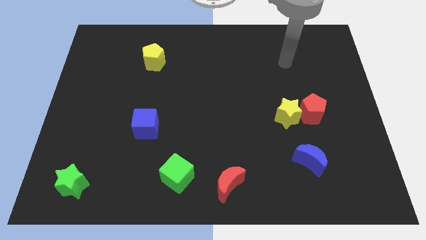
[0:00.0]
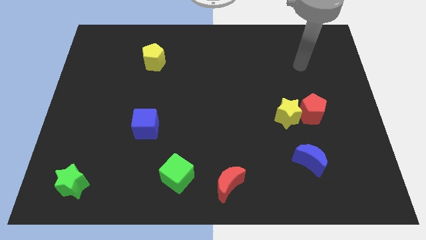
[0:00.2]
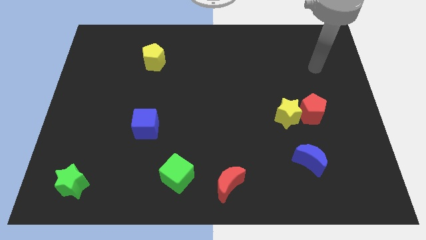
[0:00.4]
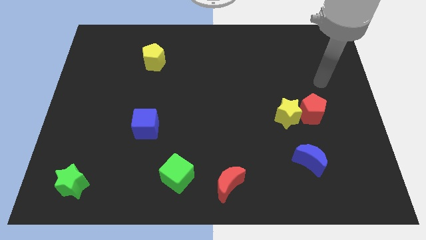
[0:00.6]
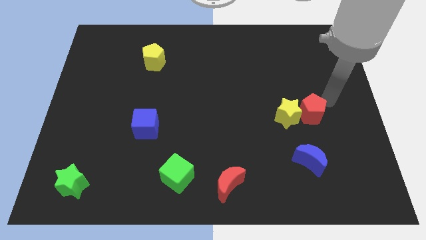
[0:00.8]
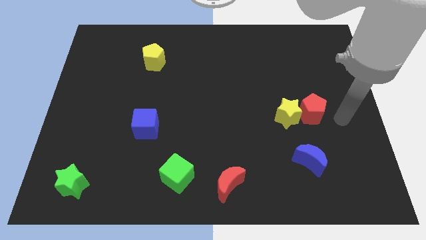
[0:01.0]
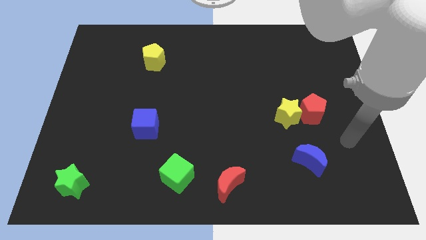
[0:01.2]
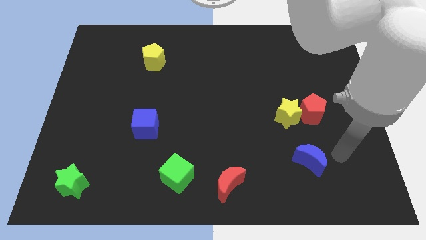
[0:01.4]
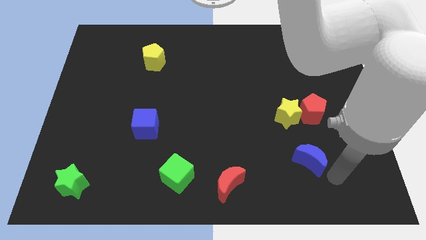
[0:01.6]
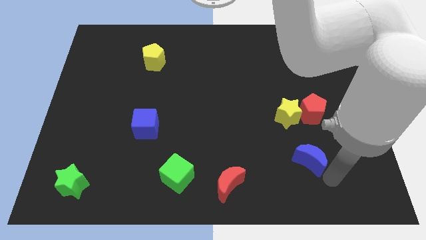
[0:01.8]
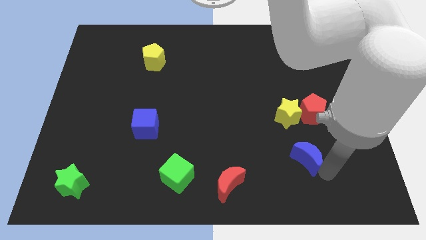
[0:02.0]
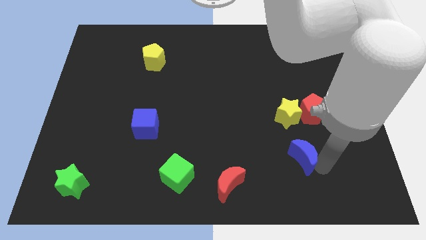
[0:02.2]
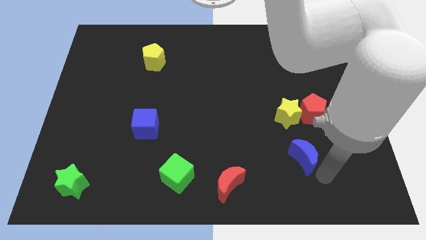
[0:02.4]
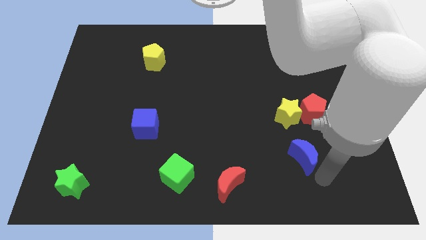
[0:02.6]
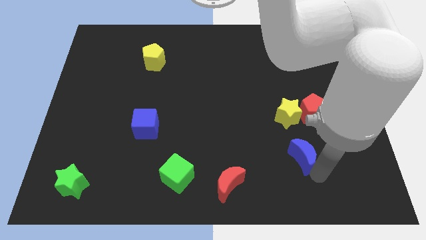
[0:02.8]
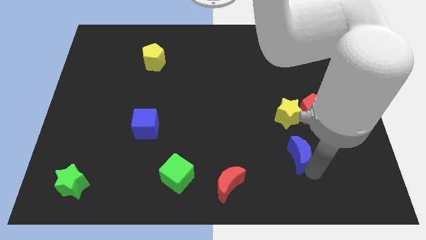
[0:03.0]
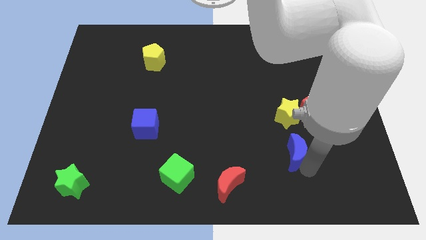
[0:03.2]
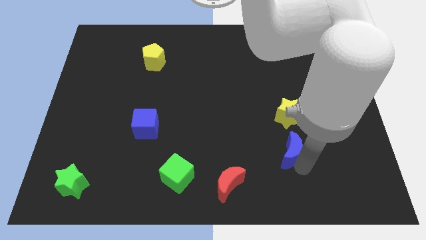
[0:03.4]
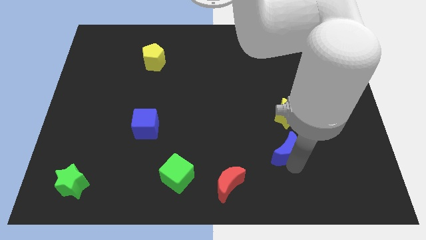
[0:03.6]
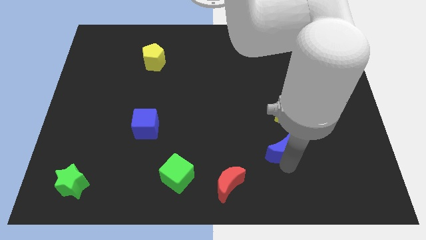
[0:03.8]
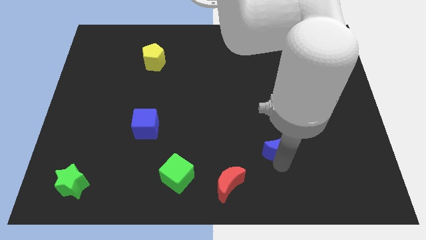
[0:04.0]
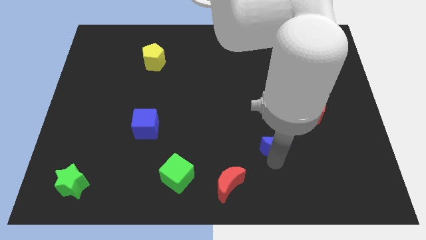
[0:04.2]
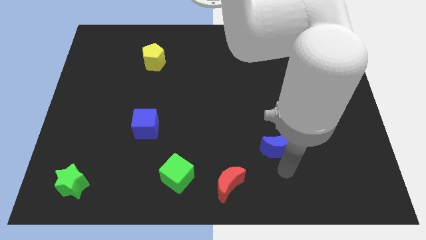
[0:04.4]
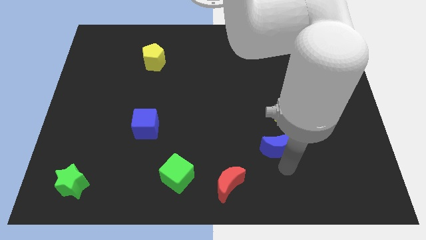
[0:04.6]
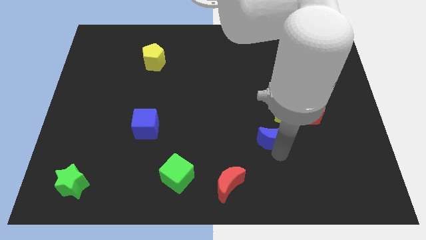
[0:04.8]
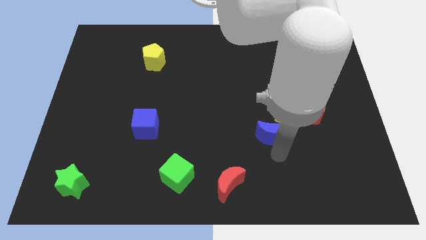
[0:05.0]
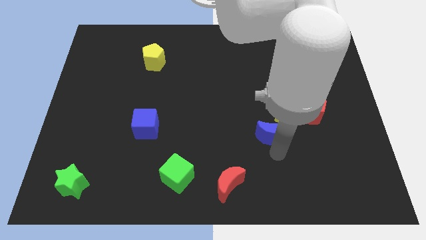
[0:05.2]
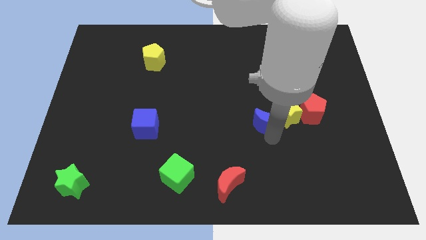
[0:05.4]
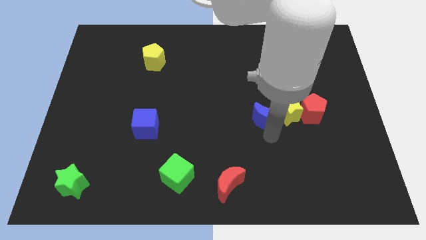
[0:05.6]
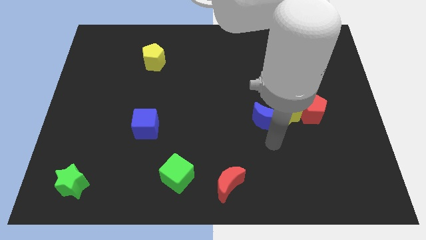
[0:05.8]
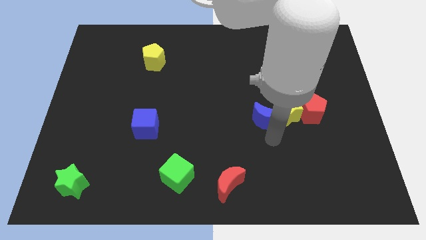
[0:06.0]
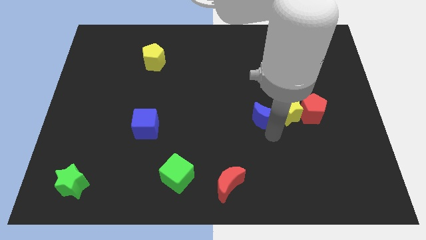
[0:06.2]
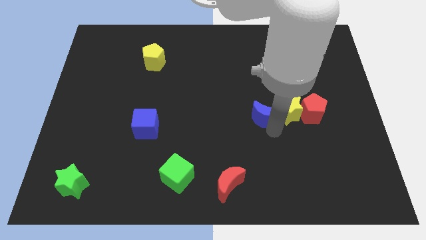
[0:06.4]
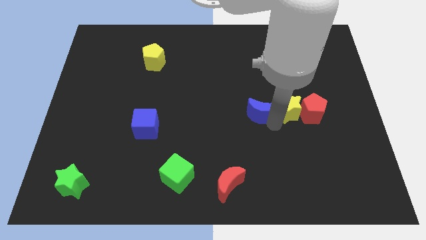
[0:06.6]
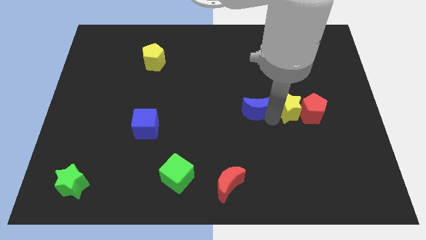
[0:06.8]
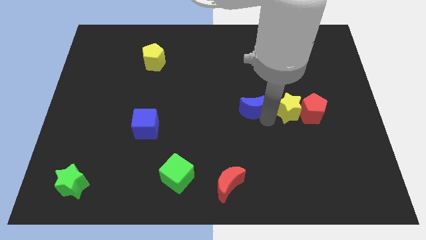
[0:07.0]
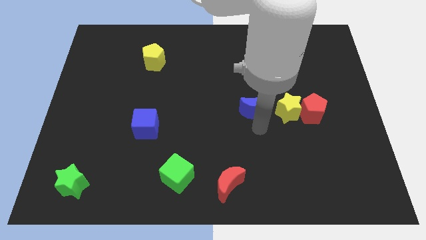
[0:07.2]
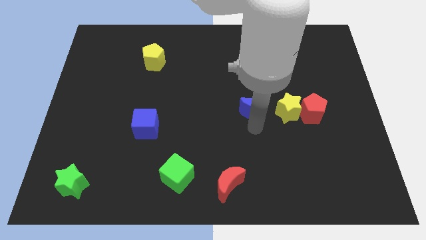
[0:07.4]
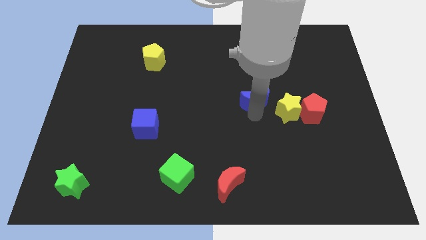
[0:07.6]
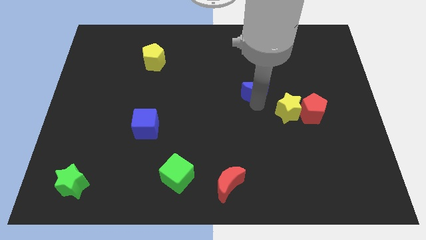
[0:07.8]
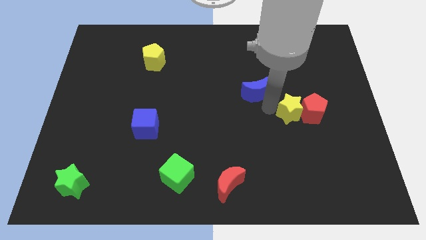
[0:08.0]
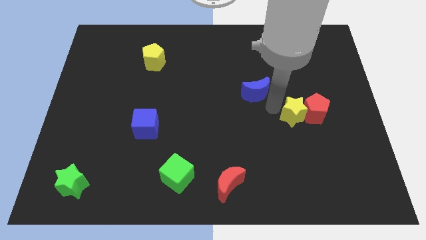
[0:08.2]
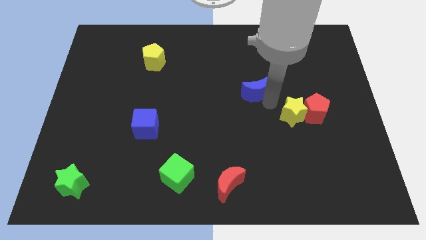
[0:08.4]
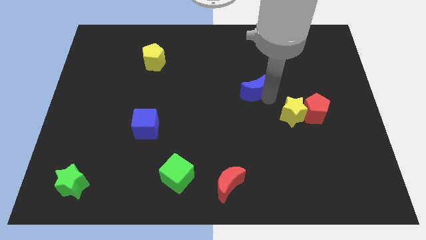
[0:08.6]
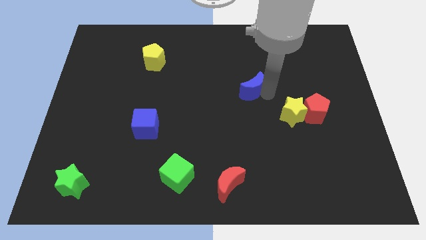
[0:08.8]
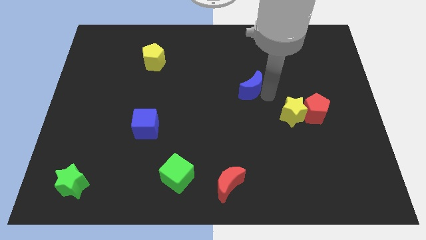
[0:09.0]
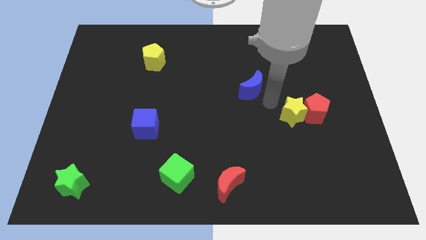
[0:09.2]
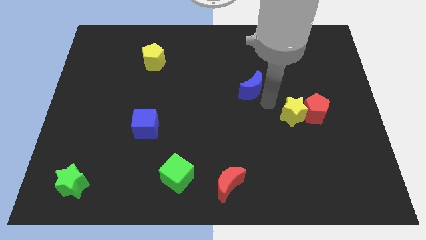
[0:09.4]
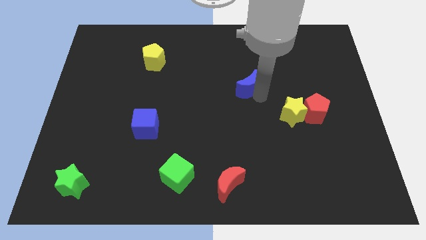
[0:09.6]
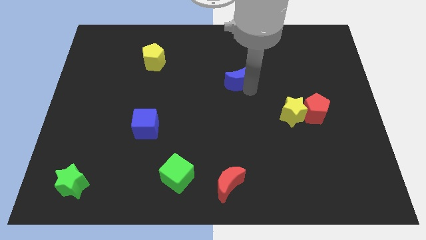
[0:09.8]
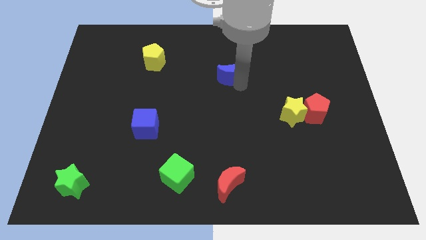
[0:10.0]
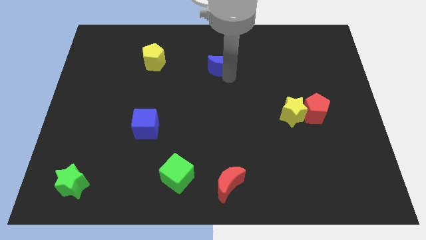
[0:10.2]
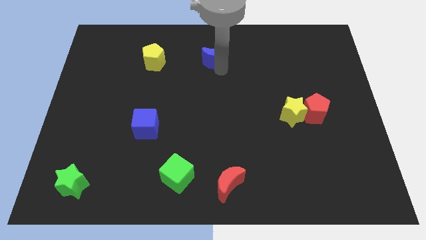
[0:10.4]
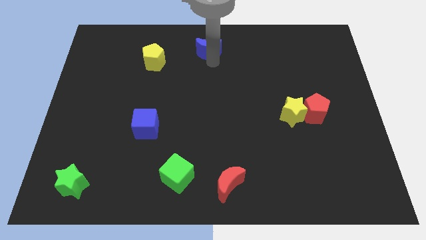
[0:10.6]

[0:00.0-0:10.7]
move the blue moon to the towards your base

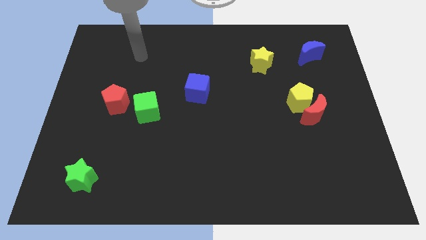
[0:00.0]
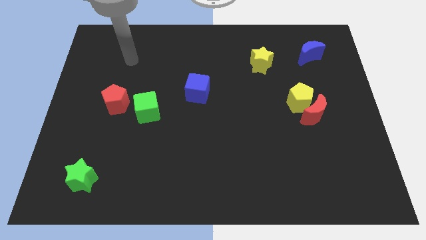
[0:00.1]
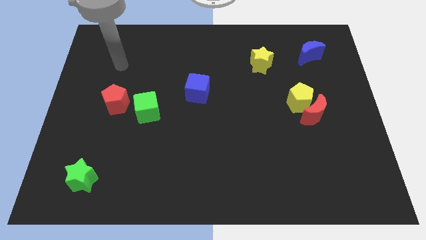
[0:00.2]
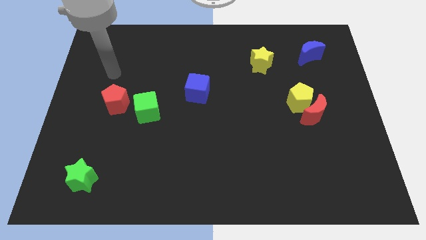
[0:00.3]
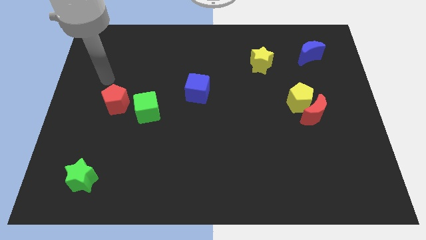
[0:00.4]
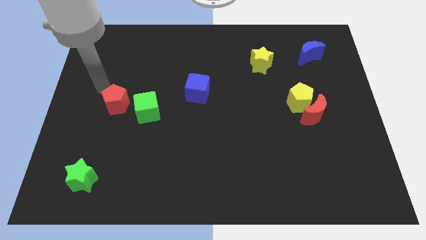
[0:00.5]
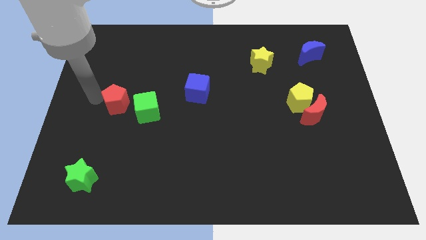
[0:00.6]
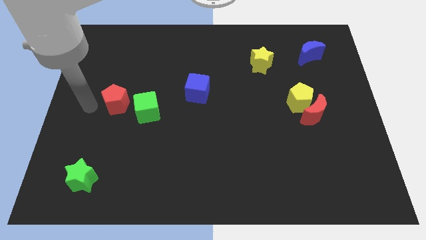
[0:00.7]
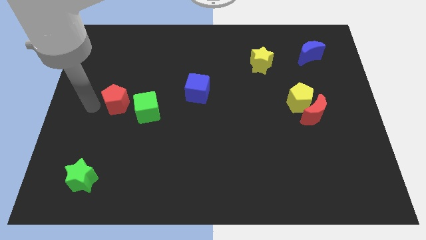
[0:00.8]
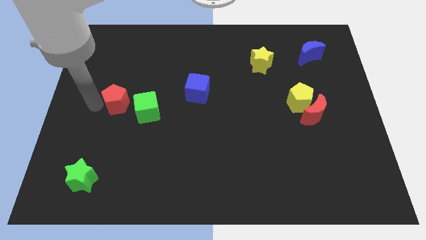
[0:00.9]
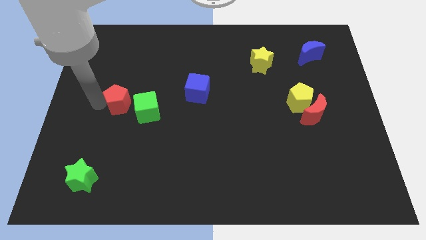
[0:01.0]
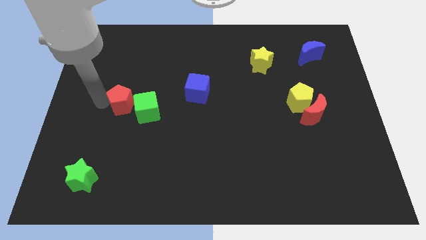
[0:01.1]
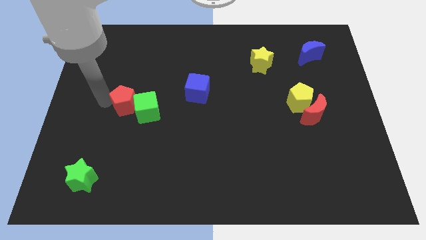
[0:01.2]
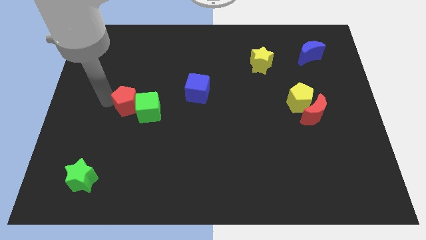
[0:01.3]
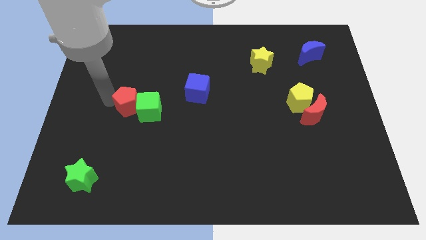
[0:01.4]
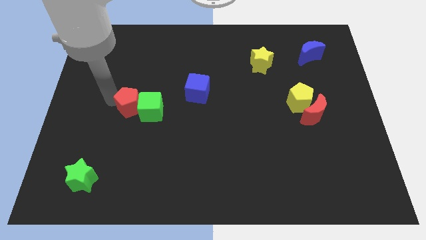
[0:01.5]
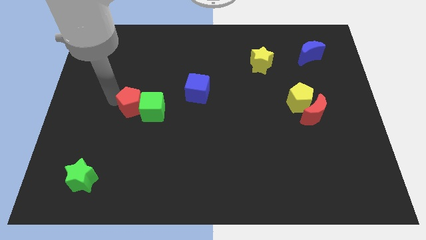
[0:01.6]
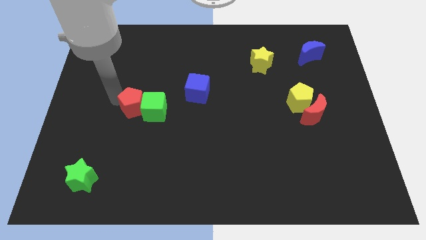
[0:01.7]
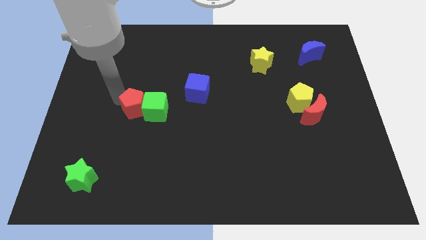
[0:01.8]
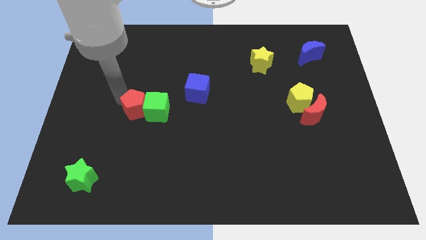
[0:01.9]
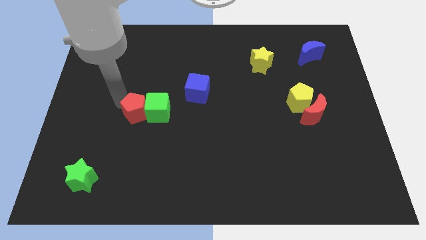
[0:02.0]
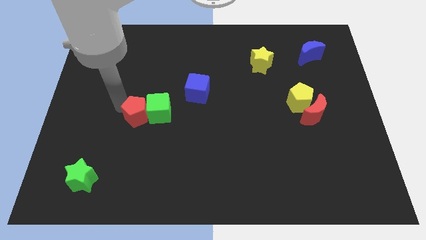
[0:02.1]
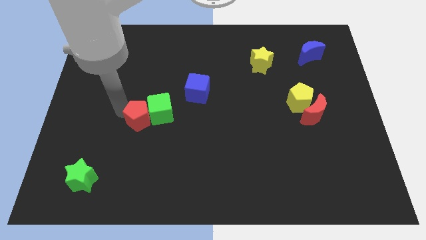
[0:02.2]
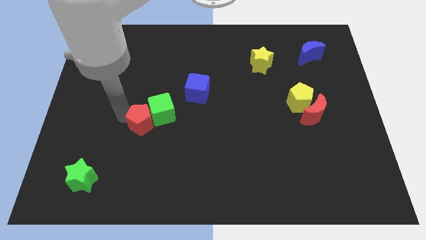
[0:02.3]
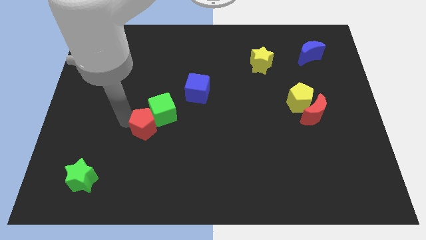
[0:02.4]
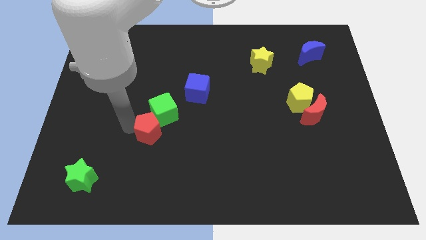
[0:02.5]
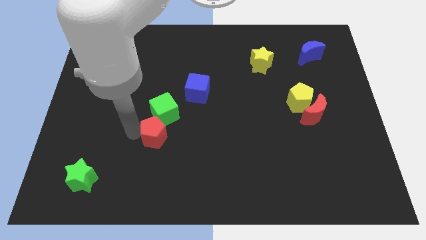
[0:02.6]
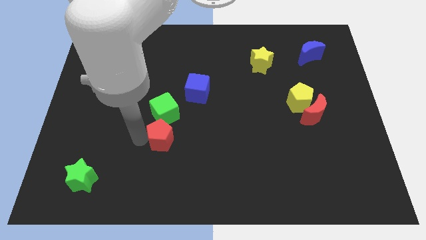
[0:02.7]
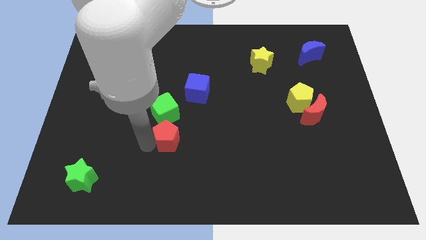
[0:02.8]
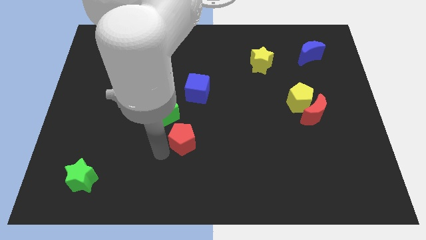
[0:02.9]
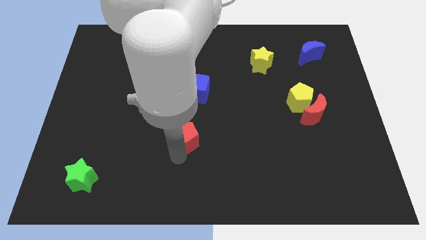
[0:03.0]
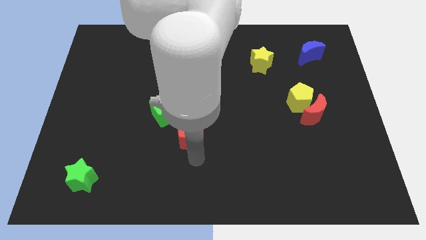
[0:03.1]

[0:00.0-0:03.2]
push the red pentagon to the middle of the board
